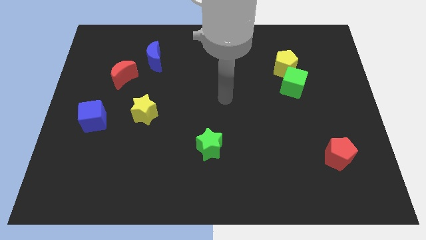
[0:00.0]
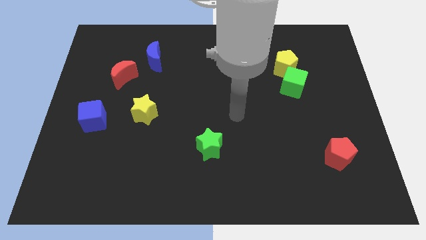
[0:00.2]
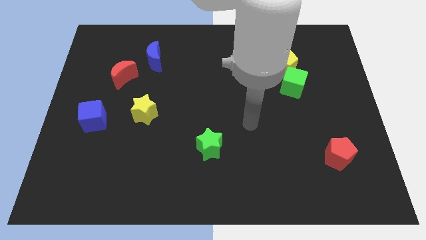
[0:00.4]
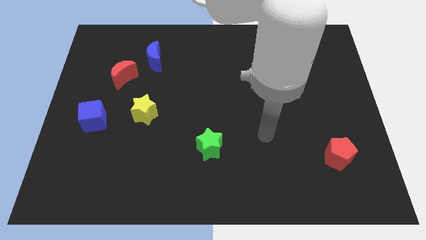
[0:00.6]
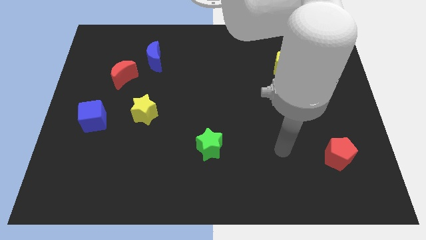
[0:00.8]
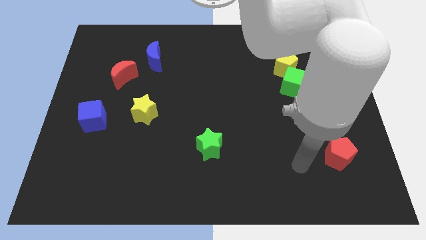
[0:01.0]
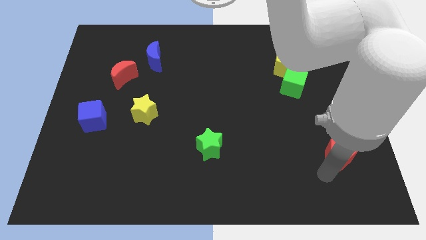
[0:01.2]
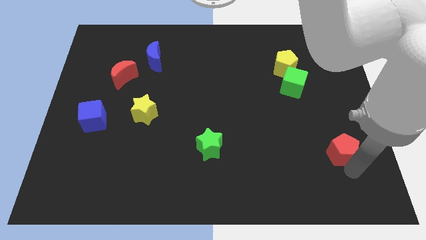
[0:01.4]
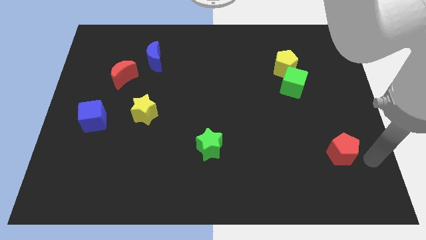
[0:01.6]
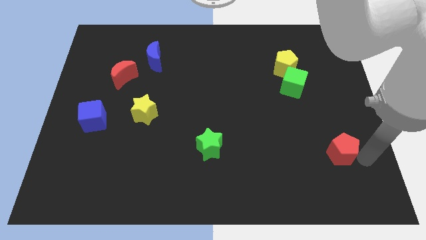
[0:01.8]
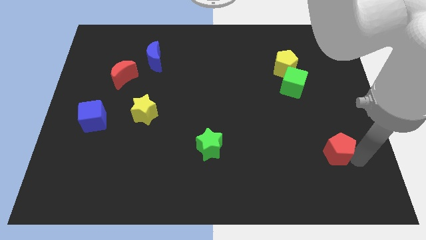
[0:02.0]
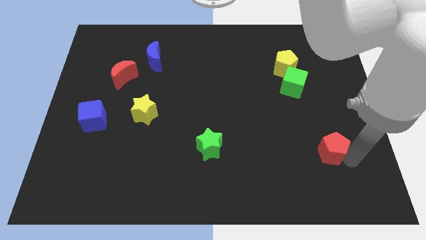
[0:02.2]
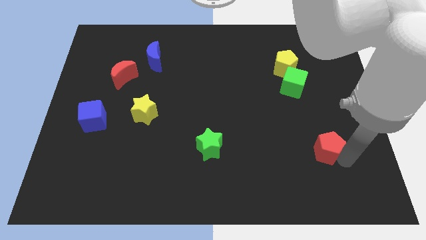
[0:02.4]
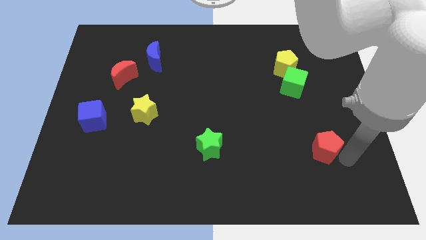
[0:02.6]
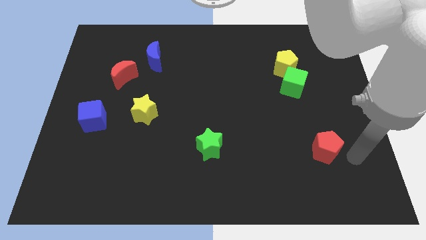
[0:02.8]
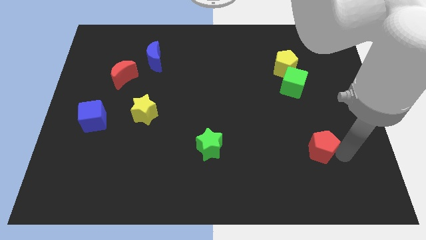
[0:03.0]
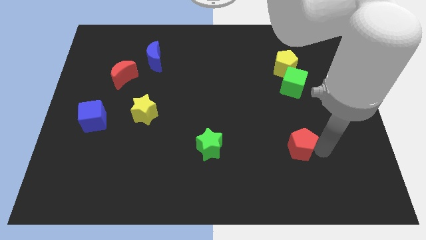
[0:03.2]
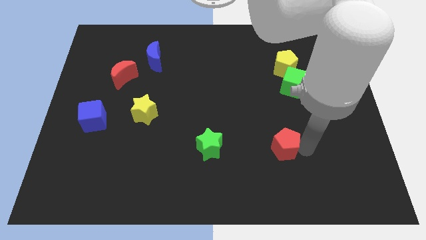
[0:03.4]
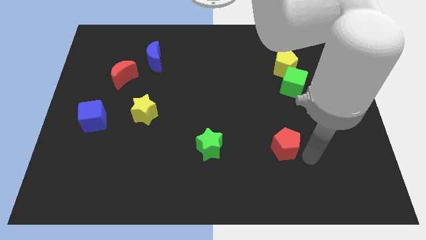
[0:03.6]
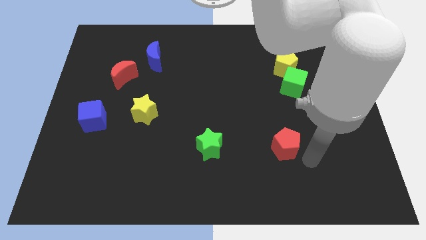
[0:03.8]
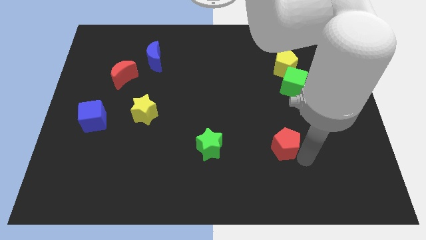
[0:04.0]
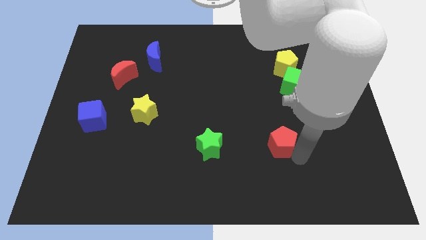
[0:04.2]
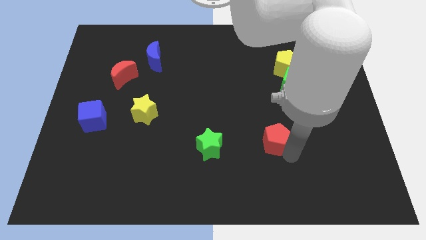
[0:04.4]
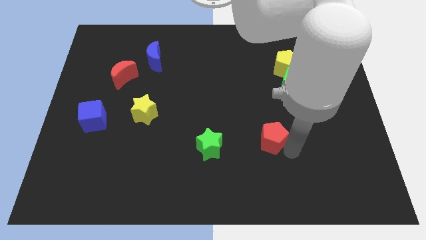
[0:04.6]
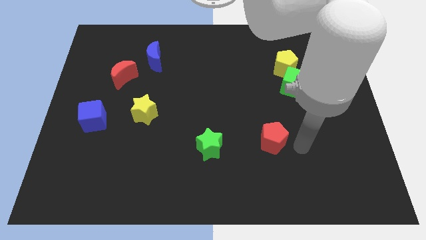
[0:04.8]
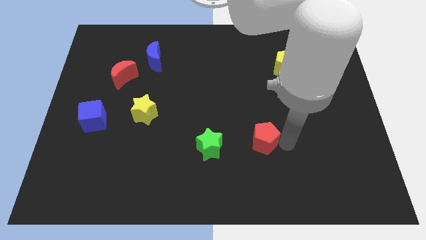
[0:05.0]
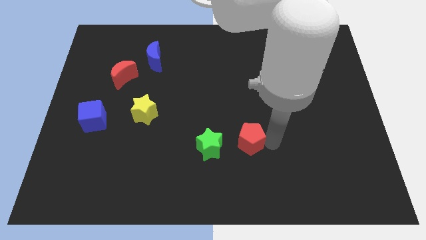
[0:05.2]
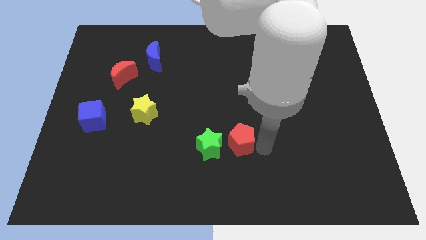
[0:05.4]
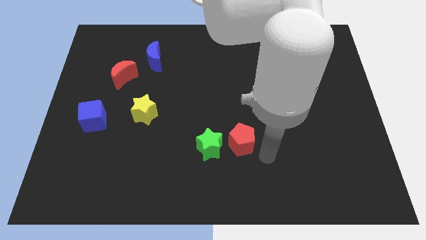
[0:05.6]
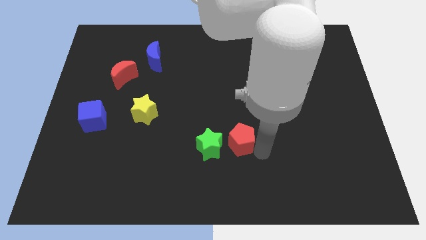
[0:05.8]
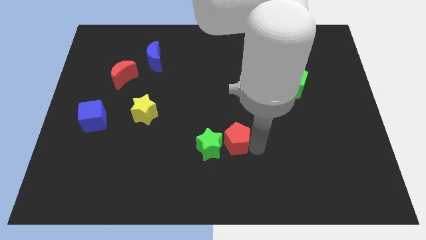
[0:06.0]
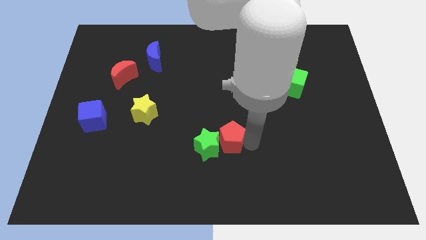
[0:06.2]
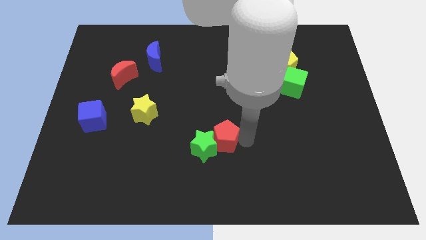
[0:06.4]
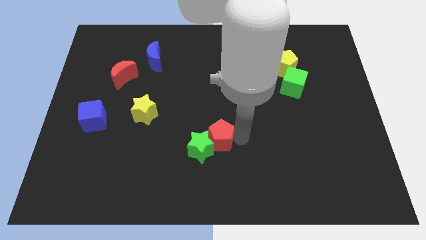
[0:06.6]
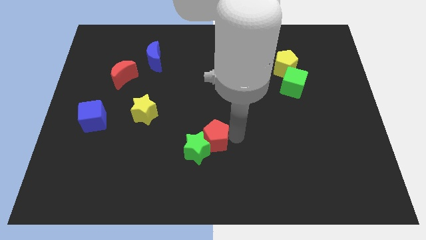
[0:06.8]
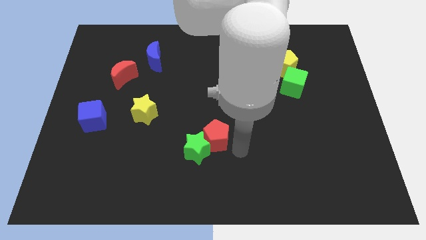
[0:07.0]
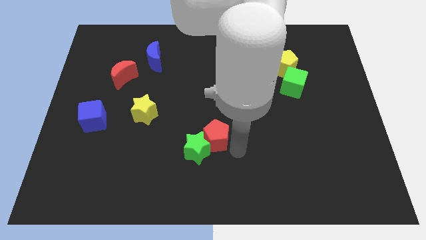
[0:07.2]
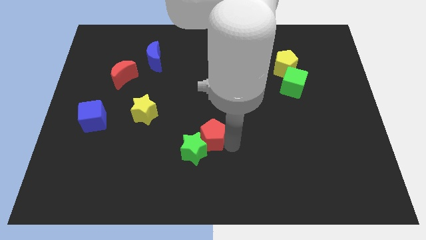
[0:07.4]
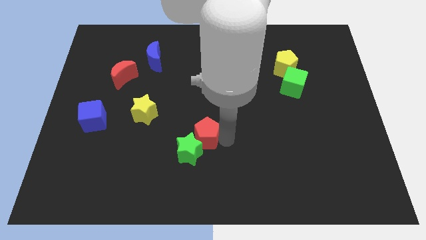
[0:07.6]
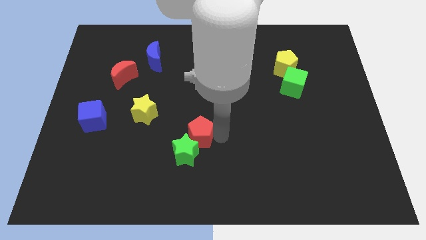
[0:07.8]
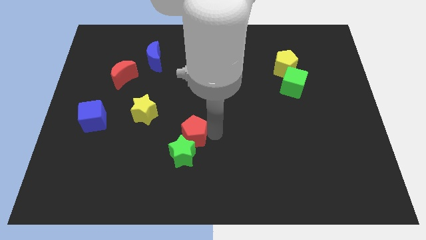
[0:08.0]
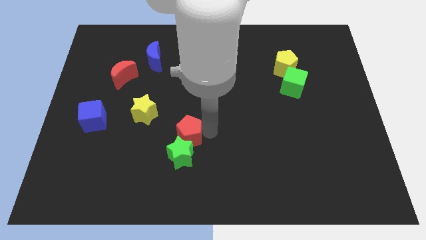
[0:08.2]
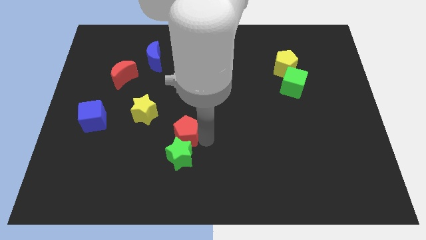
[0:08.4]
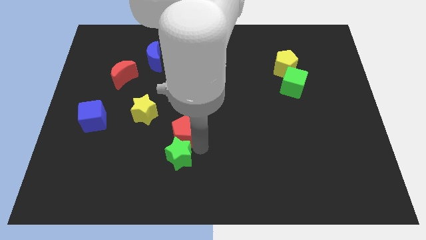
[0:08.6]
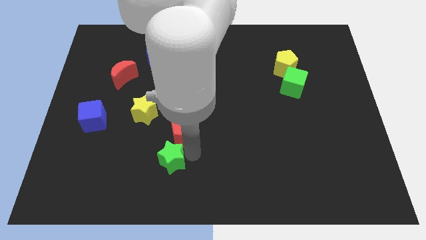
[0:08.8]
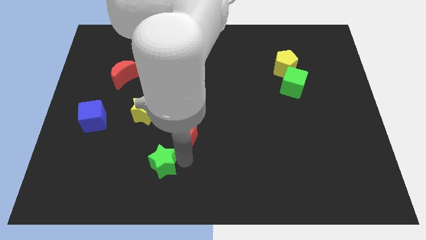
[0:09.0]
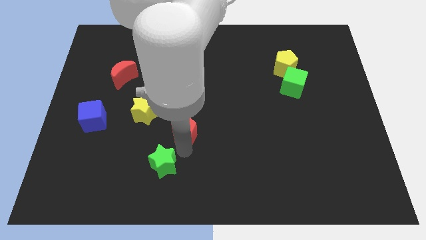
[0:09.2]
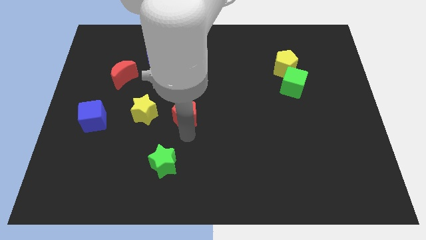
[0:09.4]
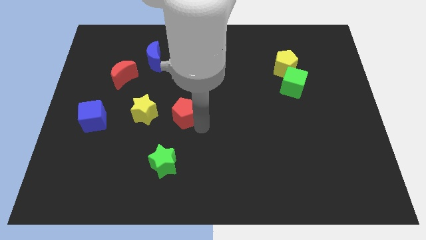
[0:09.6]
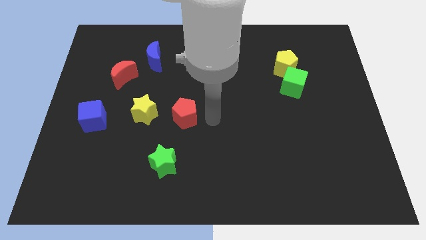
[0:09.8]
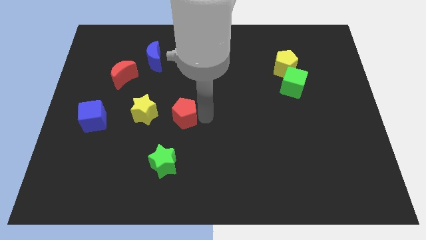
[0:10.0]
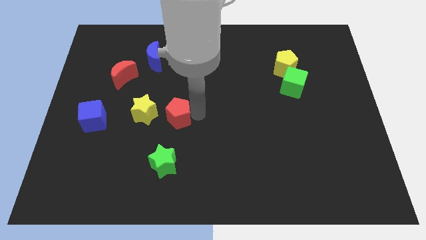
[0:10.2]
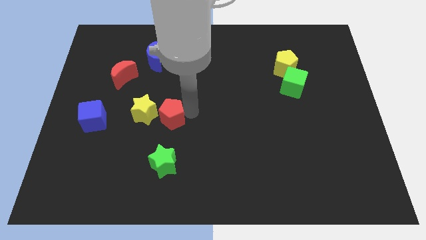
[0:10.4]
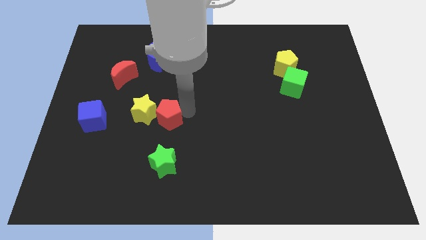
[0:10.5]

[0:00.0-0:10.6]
push the red pentagon to the yellow star

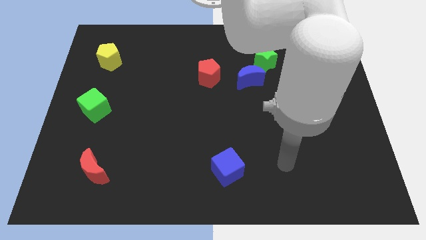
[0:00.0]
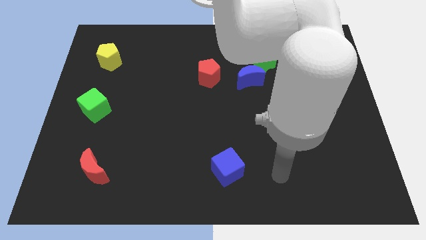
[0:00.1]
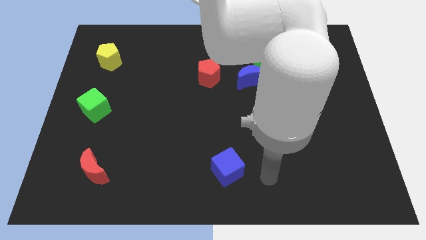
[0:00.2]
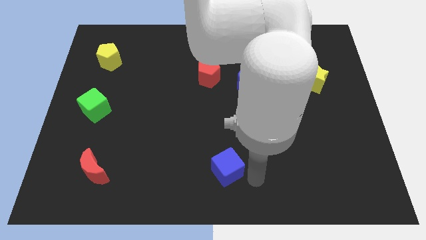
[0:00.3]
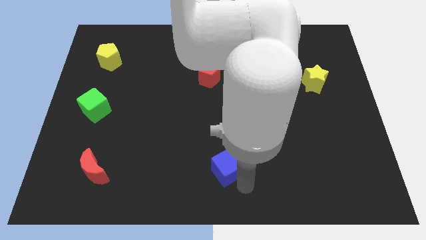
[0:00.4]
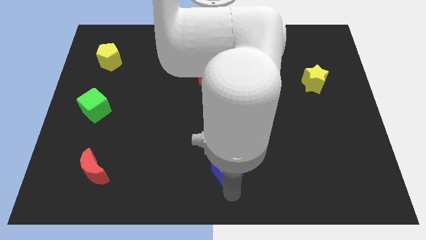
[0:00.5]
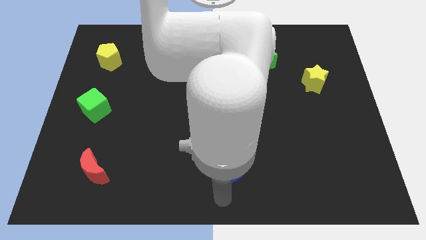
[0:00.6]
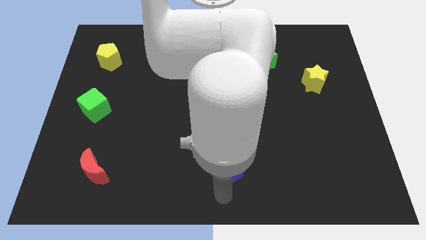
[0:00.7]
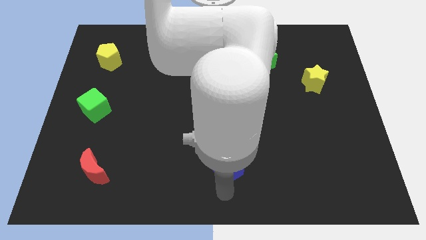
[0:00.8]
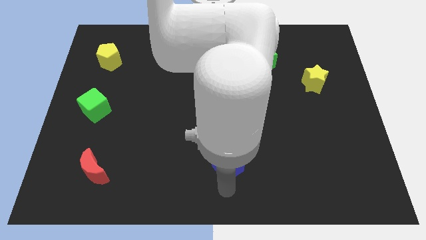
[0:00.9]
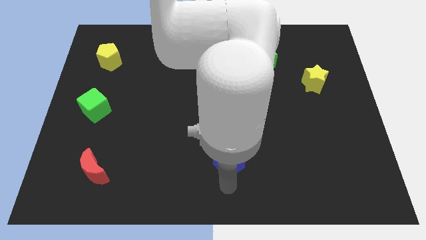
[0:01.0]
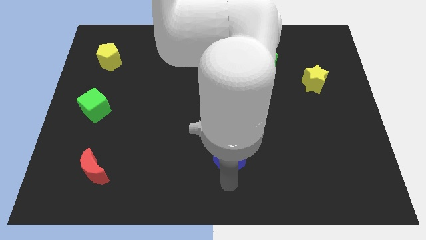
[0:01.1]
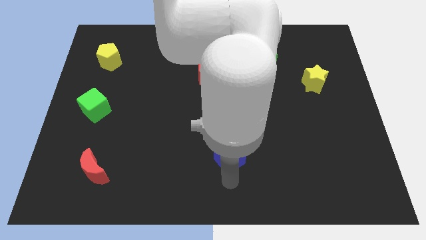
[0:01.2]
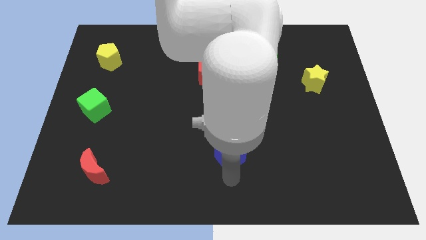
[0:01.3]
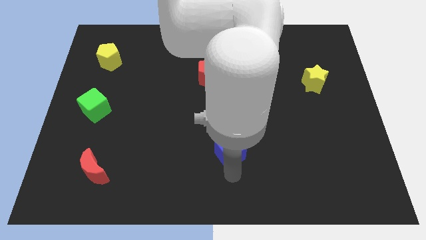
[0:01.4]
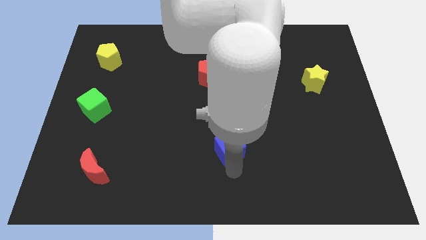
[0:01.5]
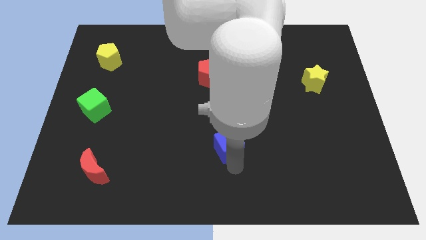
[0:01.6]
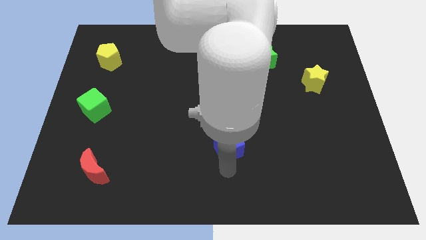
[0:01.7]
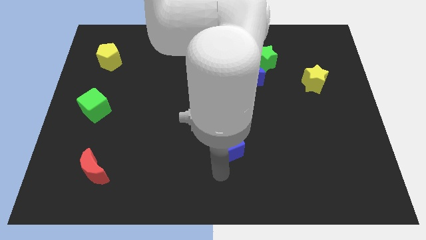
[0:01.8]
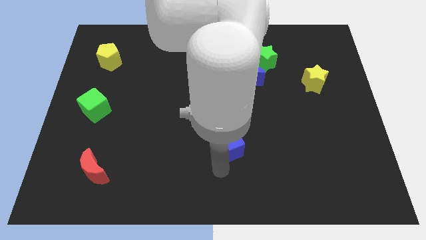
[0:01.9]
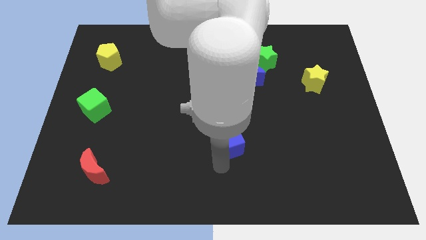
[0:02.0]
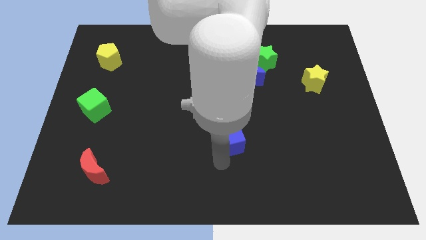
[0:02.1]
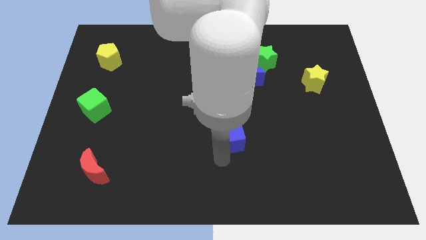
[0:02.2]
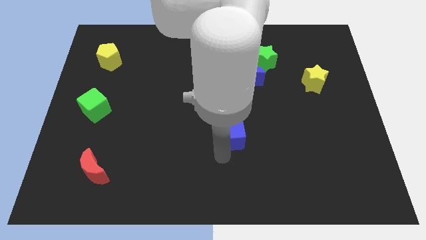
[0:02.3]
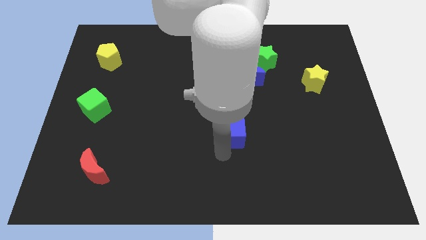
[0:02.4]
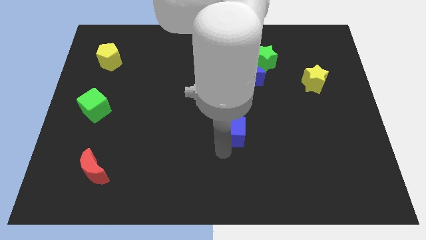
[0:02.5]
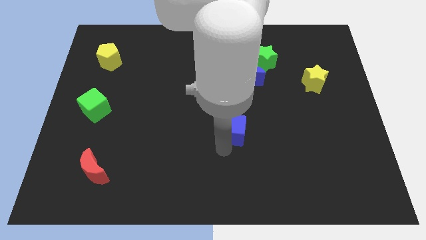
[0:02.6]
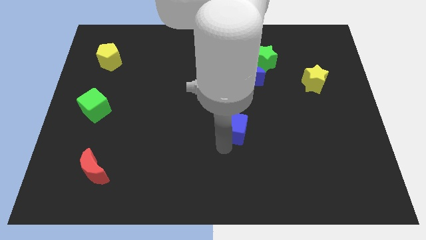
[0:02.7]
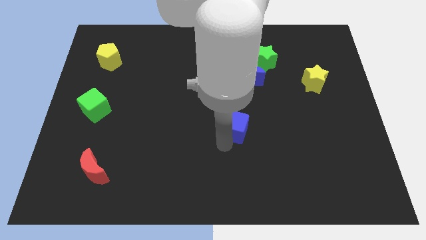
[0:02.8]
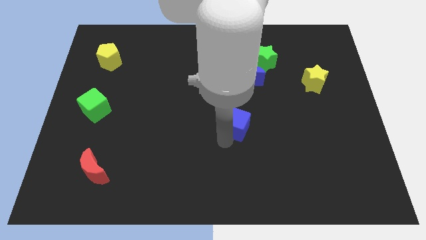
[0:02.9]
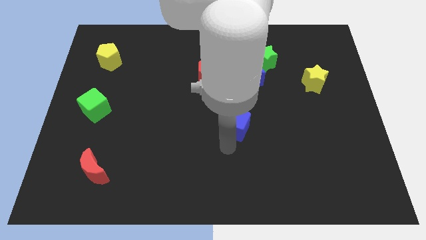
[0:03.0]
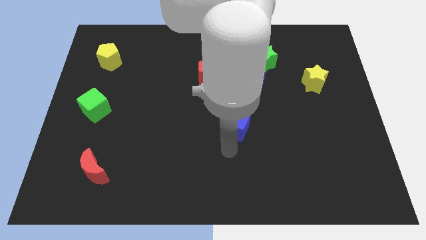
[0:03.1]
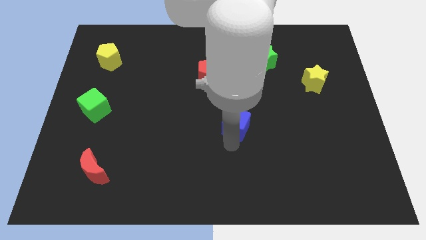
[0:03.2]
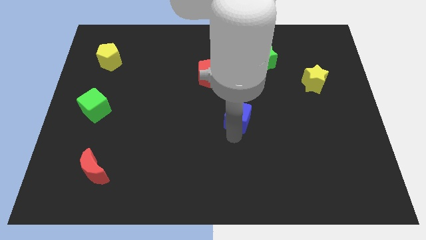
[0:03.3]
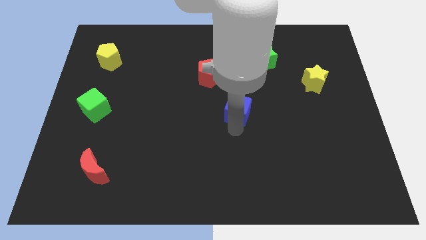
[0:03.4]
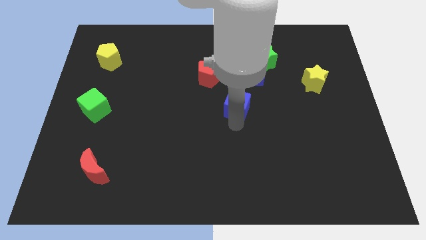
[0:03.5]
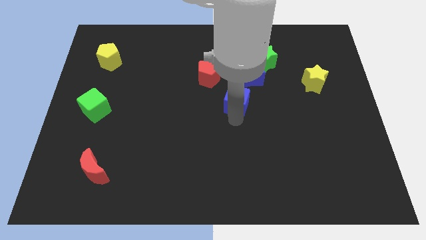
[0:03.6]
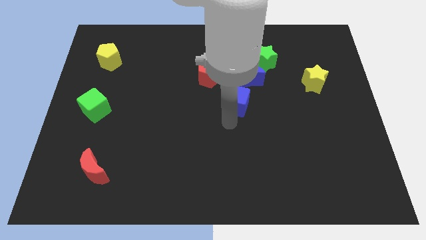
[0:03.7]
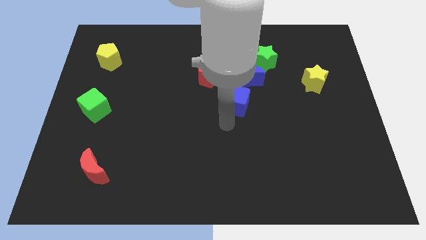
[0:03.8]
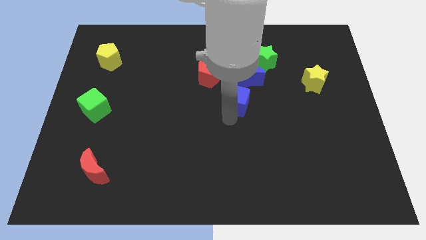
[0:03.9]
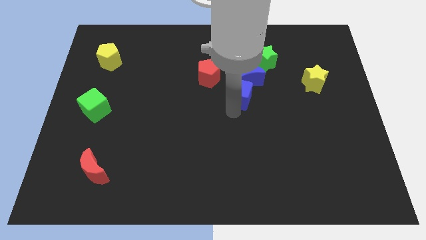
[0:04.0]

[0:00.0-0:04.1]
put the blue cube to the blue moon
